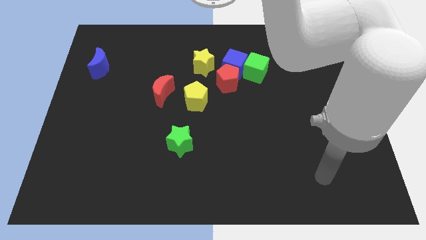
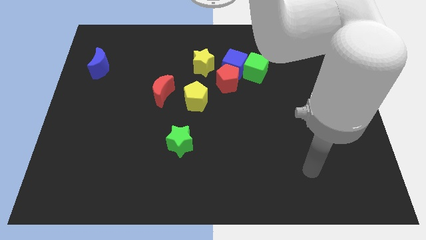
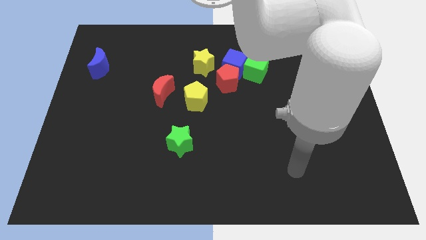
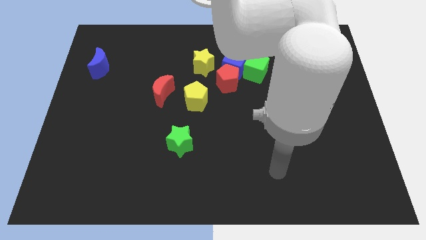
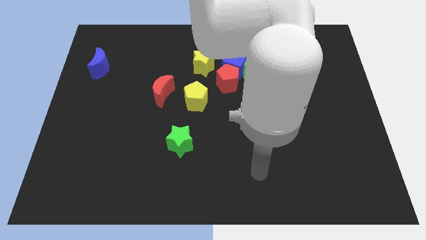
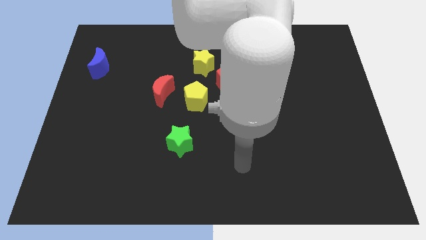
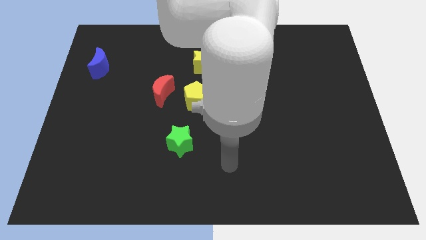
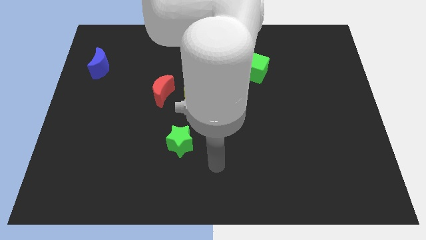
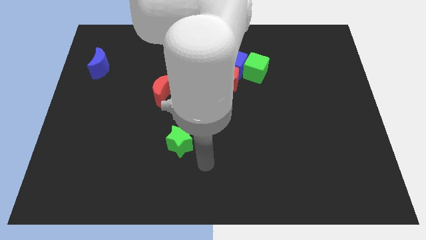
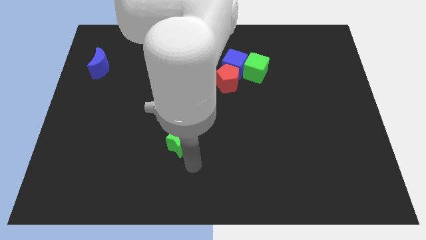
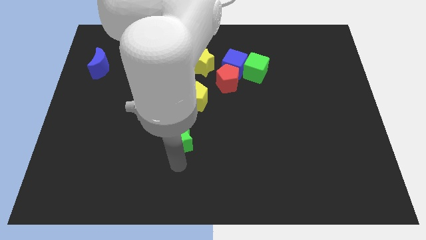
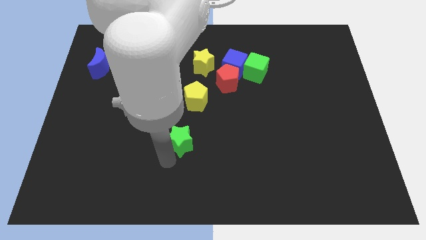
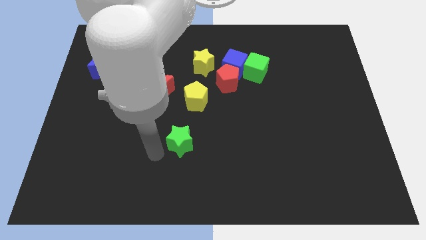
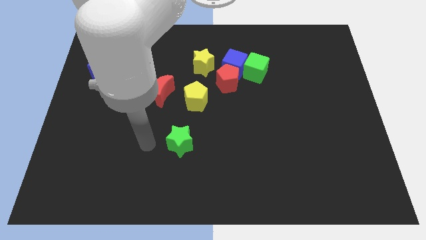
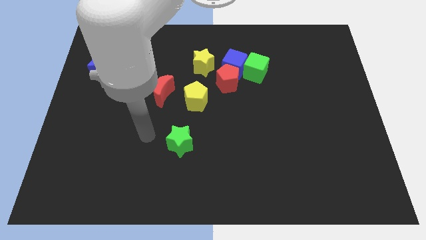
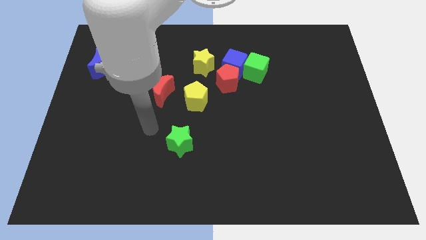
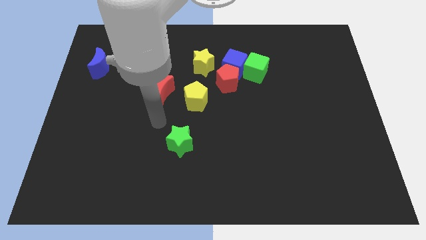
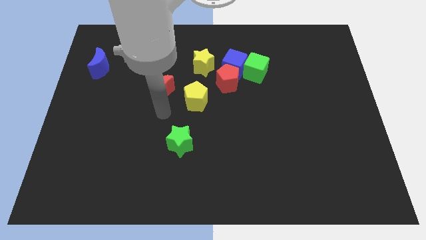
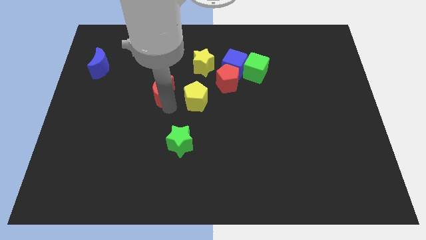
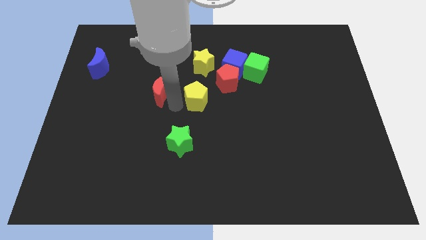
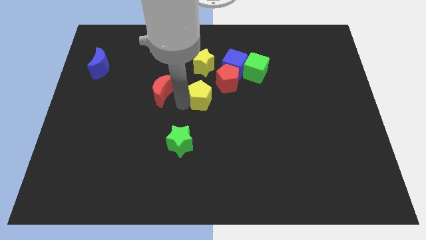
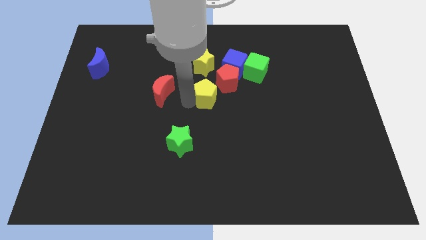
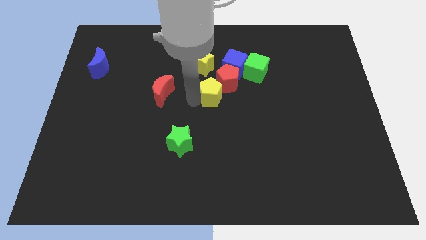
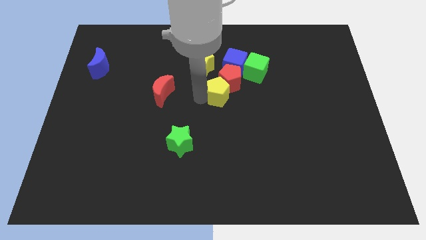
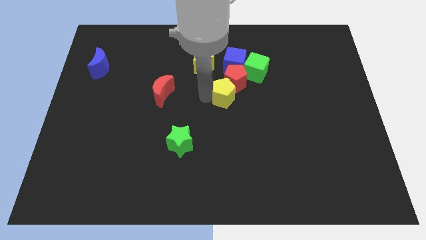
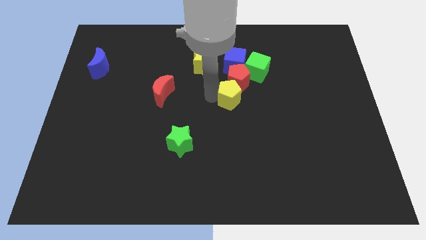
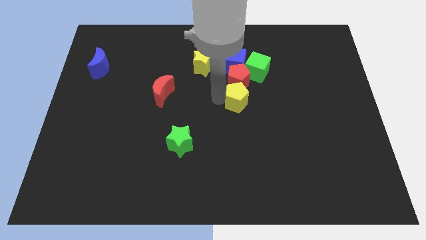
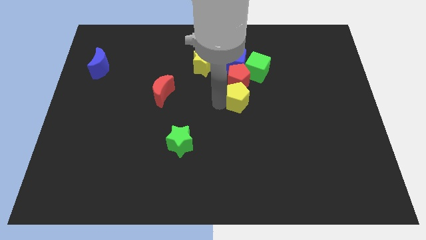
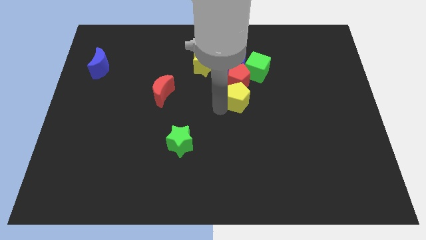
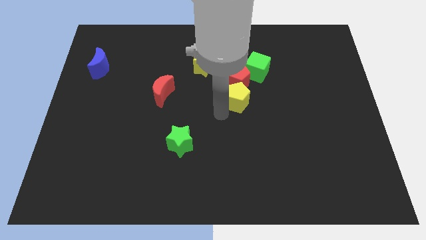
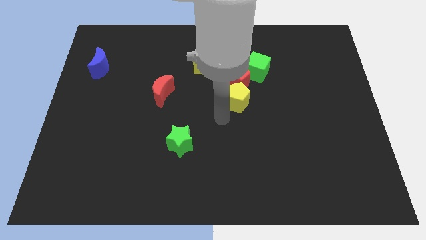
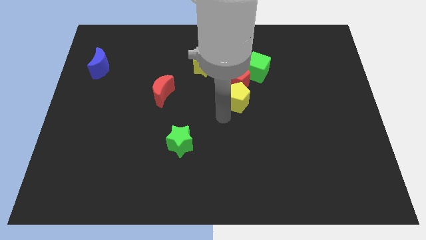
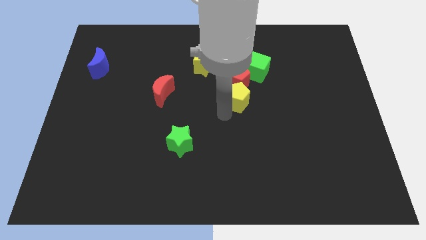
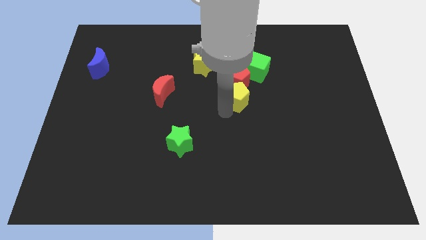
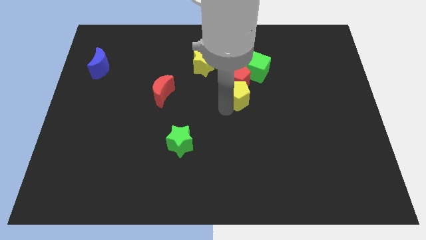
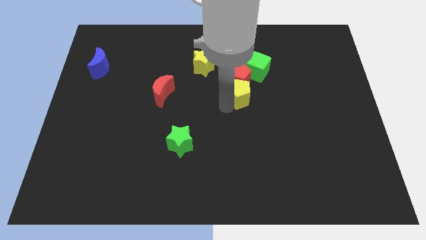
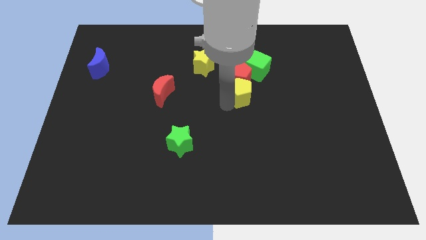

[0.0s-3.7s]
slightly push the yellow pentagon diagonally up and to the right

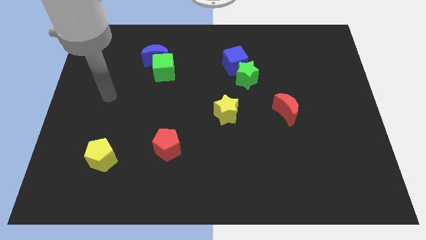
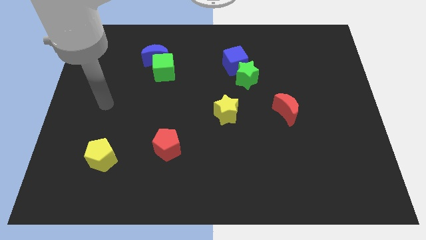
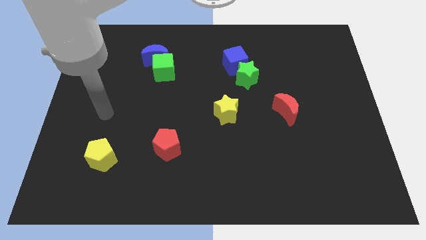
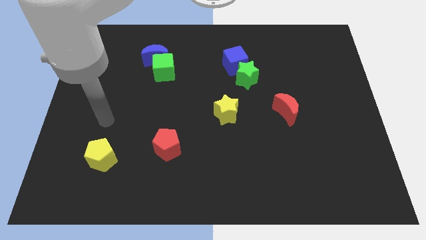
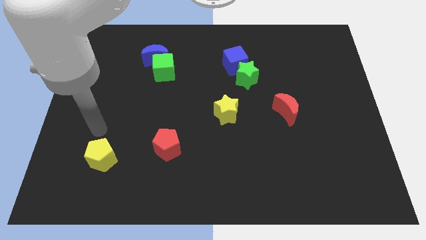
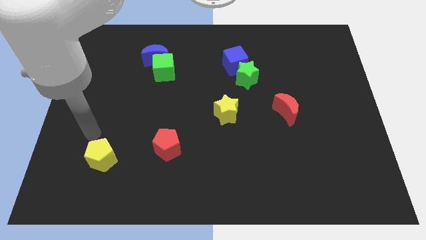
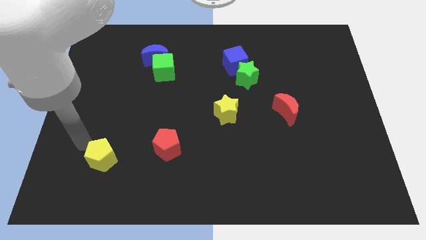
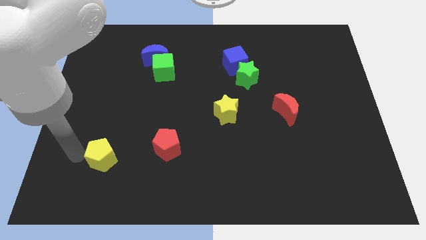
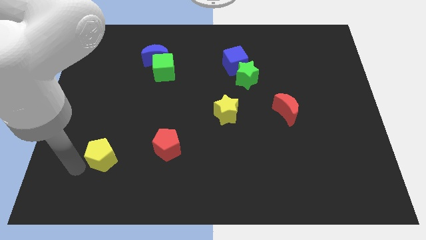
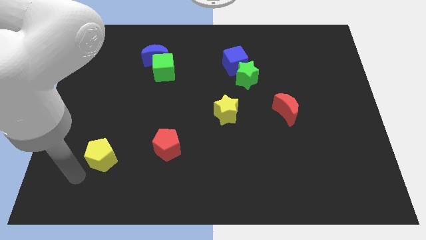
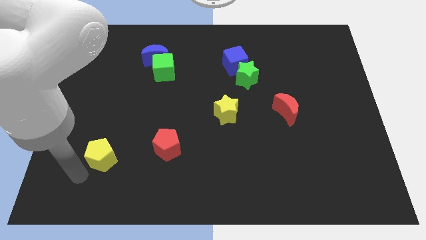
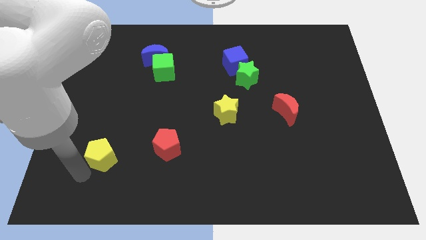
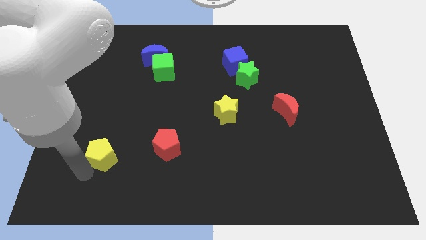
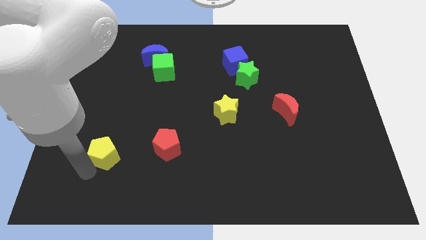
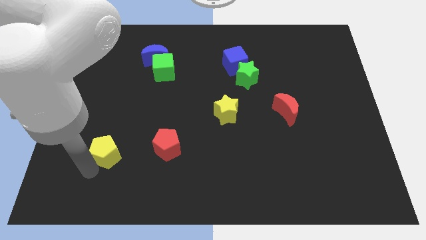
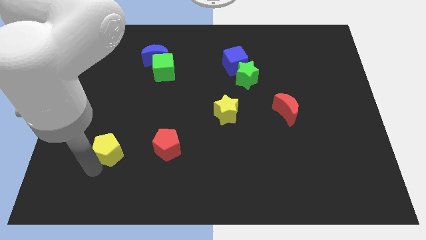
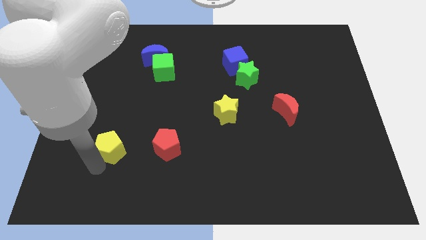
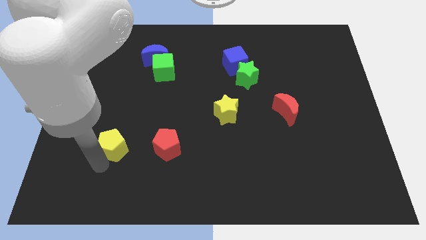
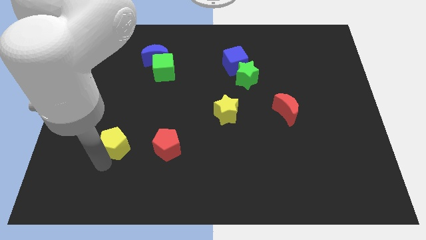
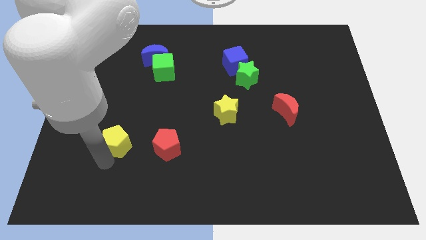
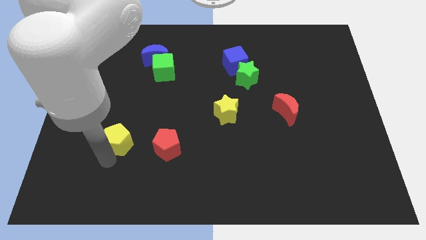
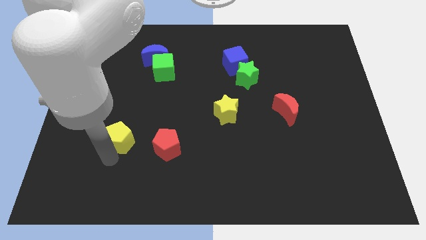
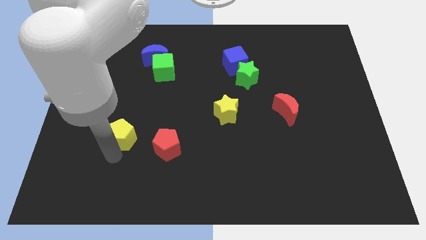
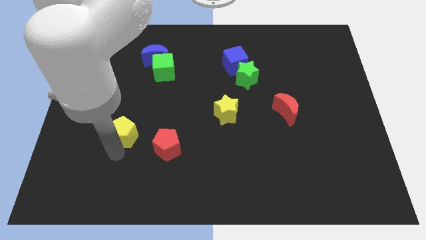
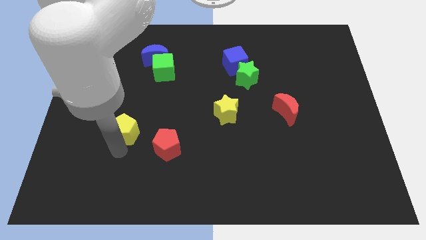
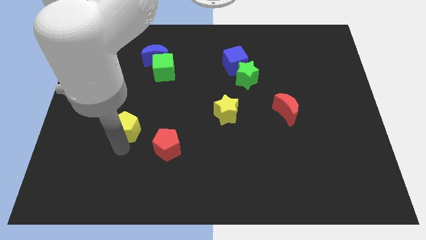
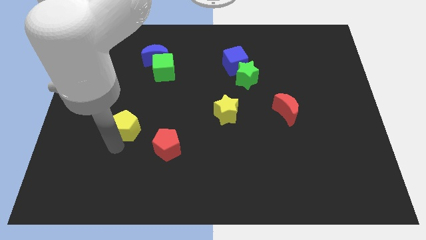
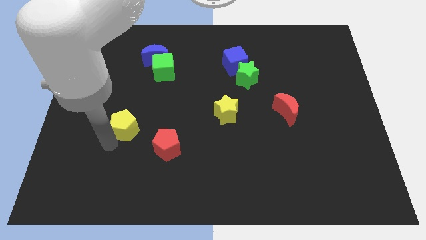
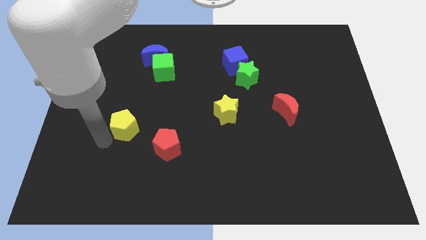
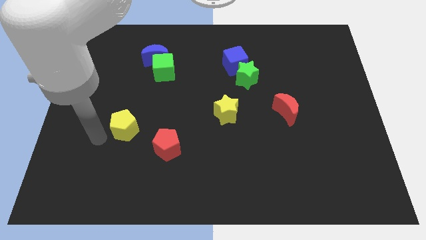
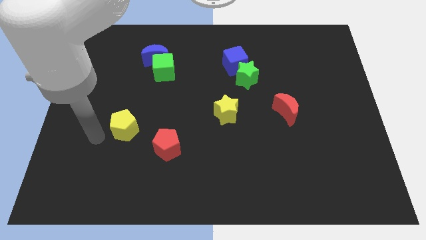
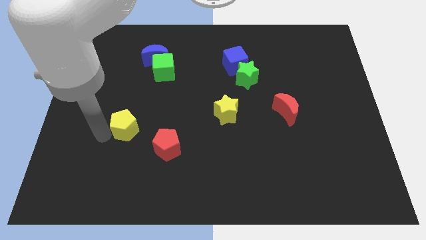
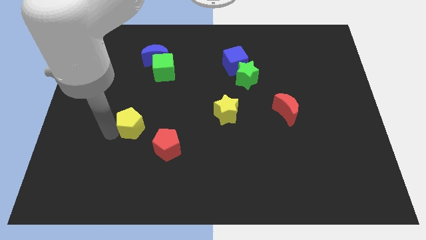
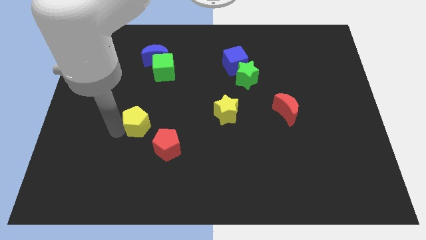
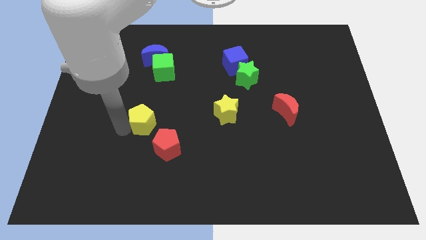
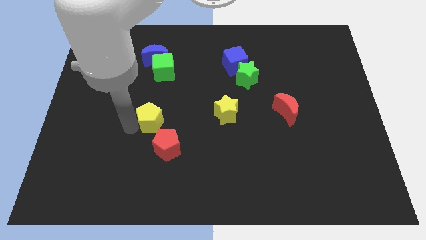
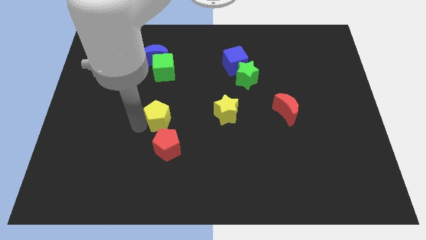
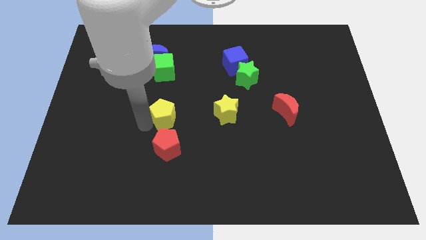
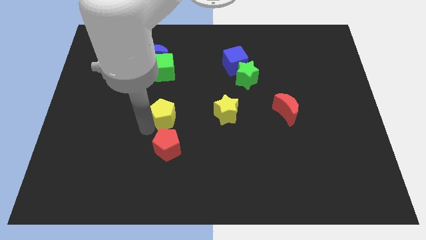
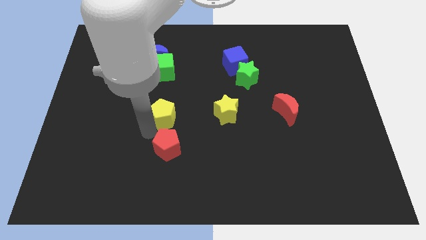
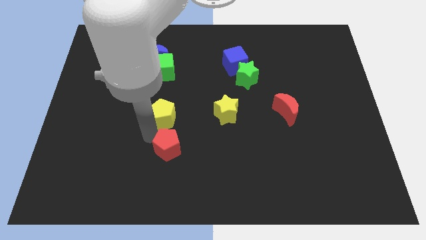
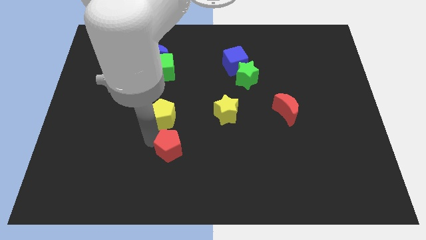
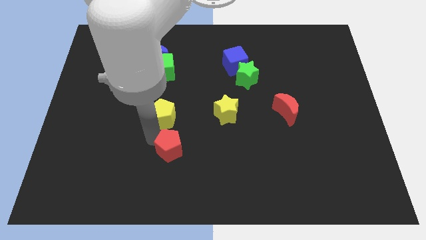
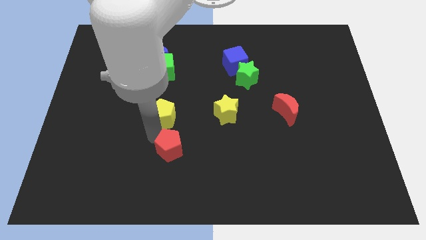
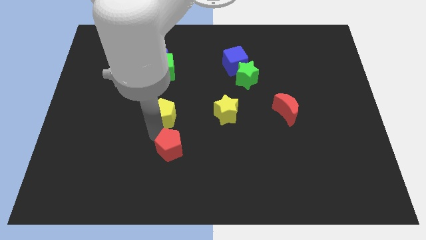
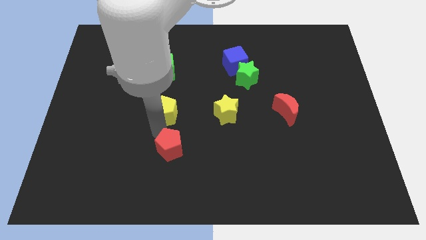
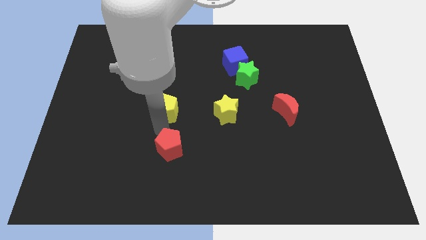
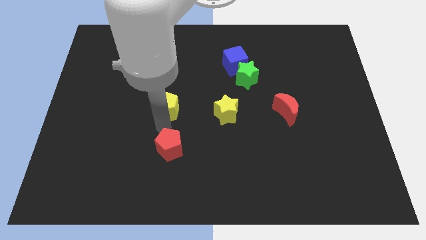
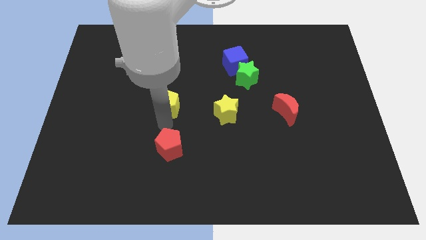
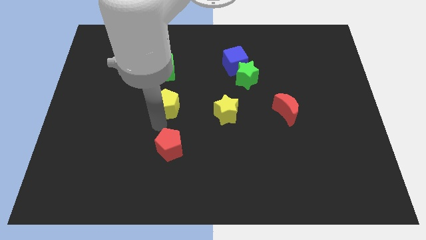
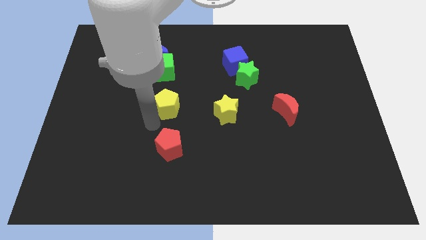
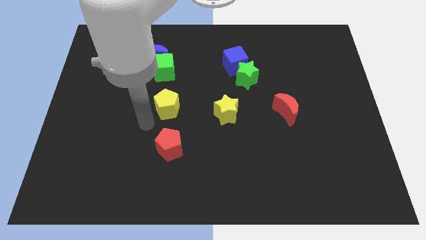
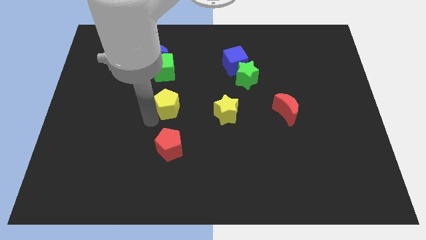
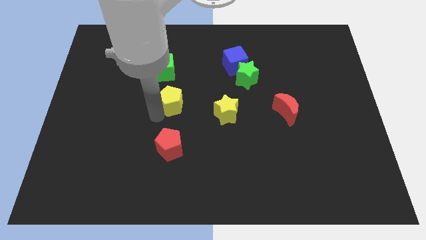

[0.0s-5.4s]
move the yellow pentagon diagonally upwards and to the right
